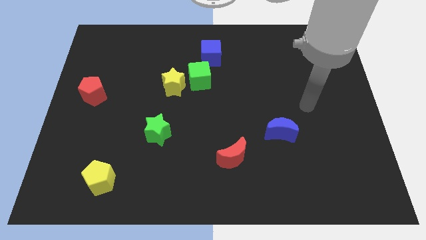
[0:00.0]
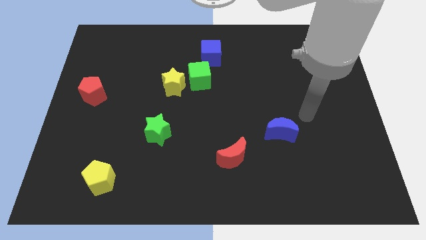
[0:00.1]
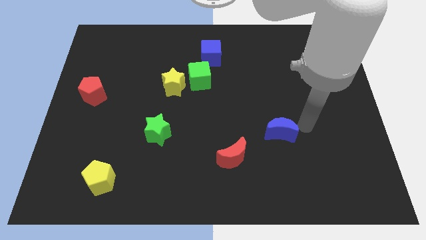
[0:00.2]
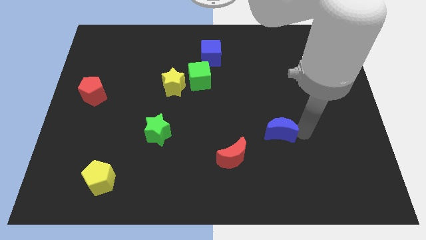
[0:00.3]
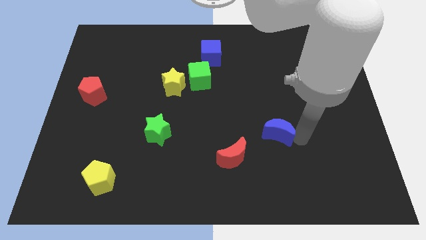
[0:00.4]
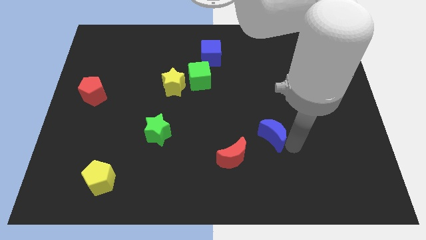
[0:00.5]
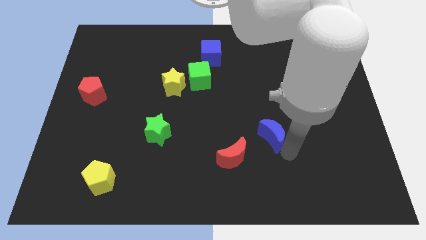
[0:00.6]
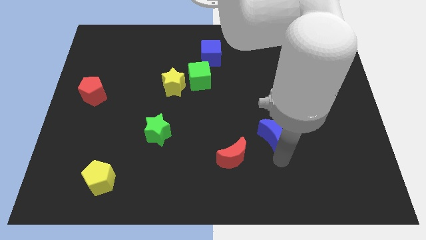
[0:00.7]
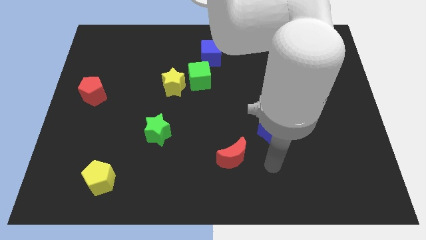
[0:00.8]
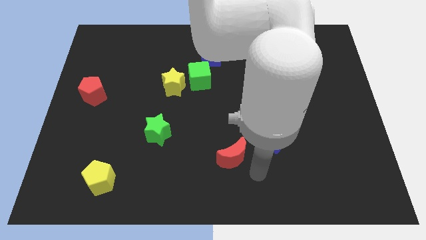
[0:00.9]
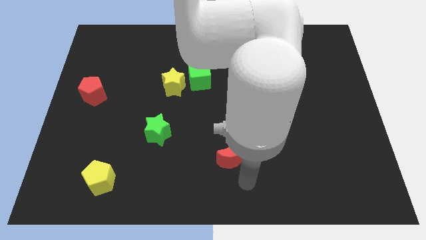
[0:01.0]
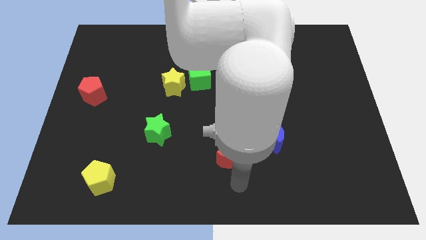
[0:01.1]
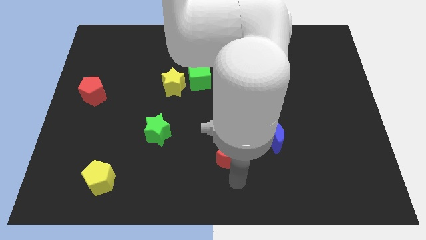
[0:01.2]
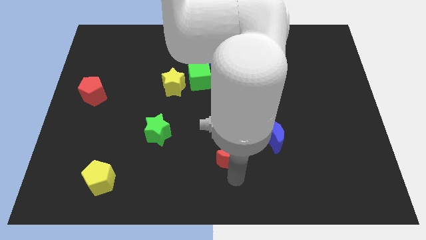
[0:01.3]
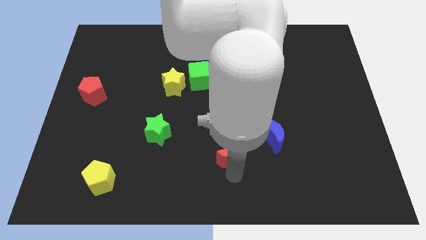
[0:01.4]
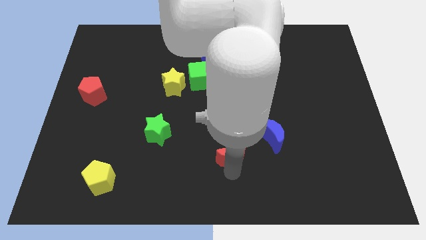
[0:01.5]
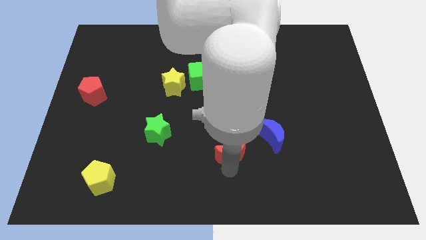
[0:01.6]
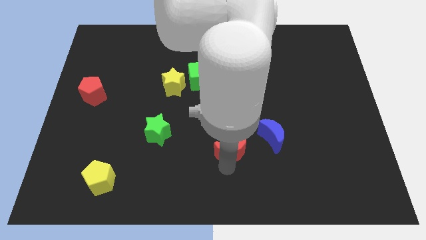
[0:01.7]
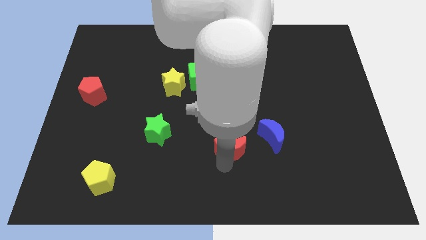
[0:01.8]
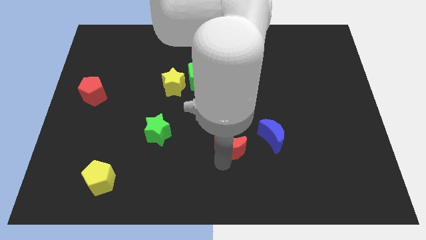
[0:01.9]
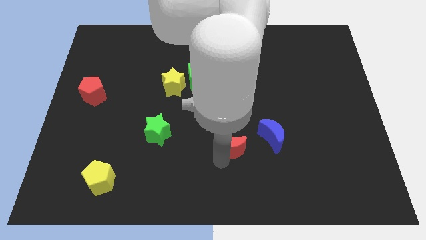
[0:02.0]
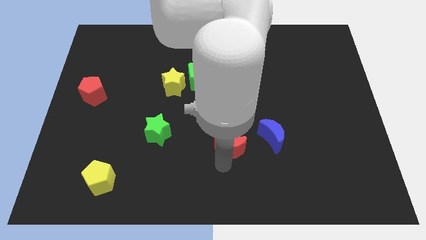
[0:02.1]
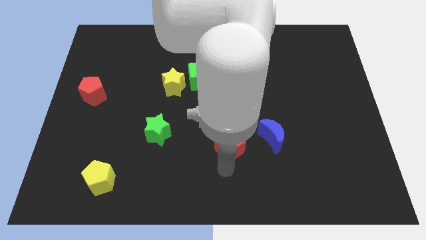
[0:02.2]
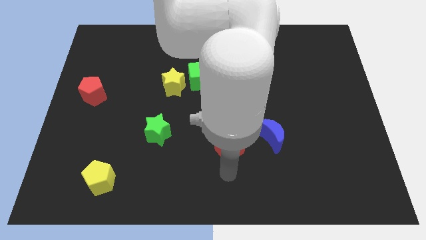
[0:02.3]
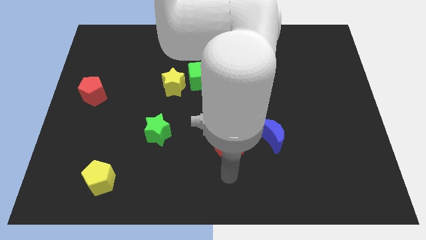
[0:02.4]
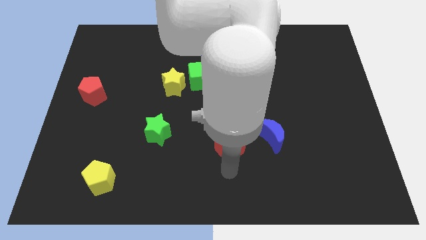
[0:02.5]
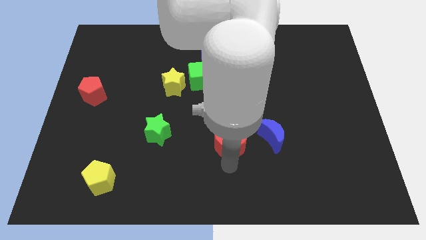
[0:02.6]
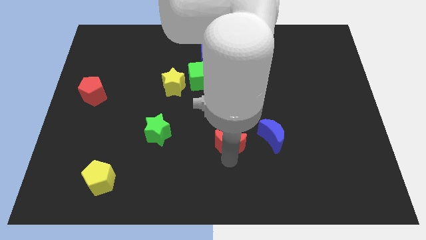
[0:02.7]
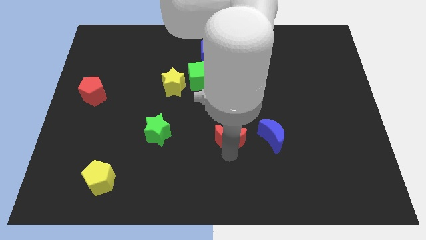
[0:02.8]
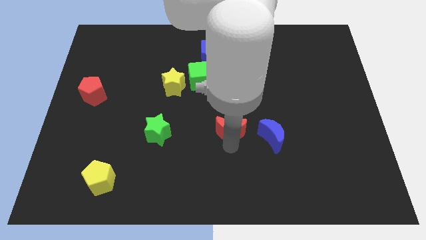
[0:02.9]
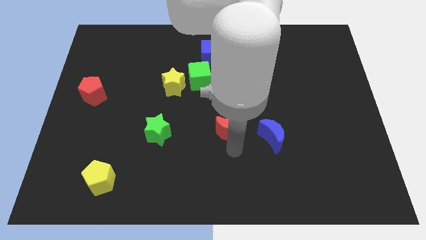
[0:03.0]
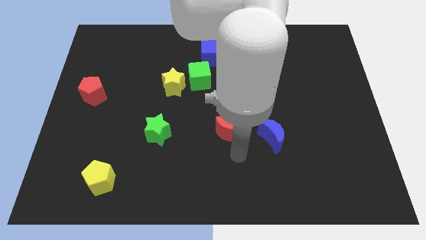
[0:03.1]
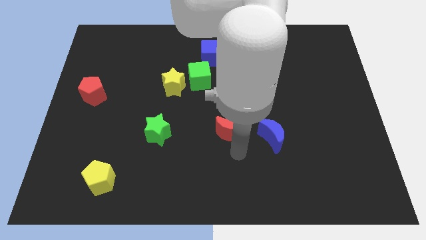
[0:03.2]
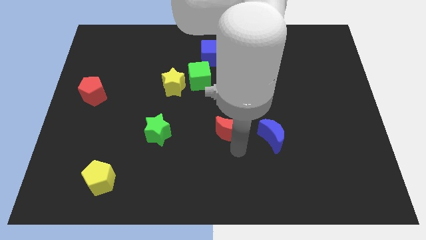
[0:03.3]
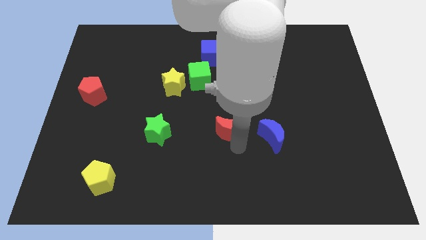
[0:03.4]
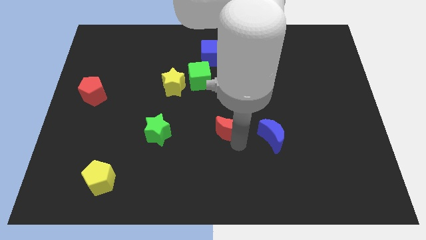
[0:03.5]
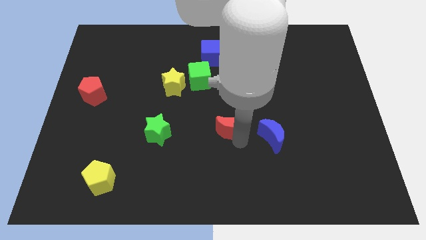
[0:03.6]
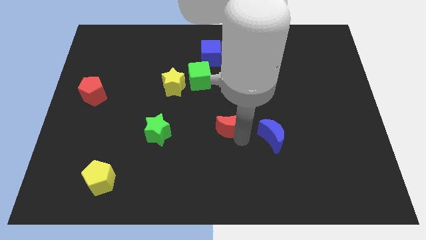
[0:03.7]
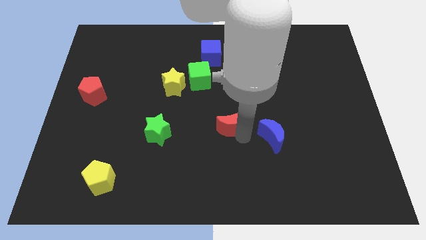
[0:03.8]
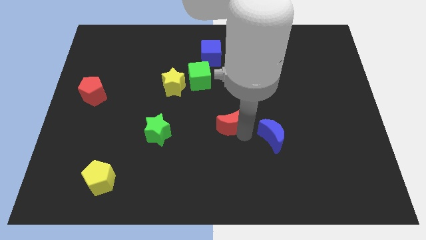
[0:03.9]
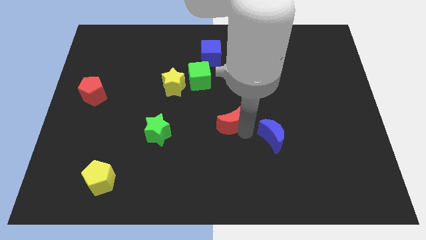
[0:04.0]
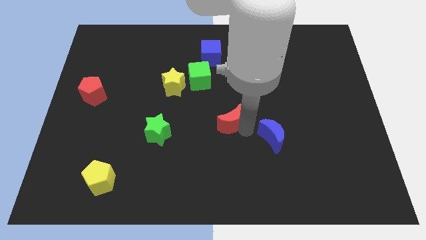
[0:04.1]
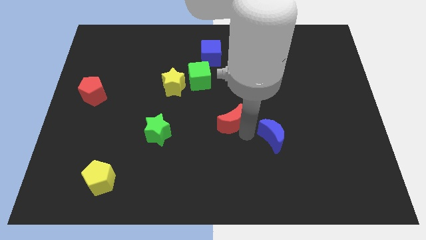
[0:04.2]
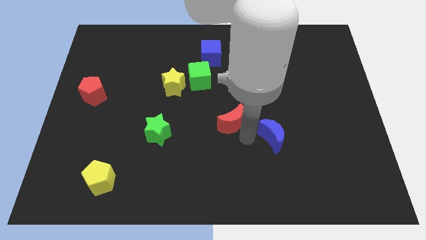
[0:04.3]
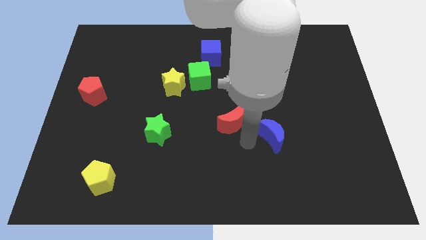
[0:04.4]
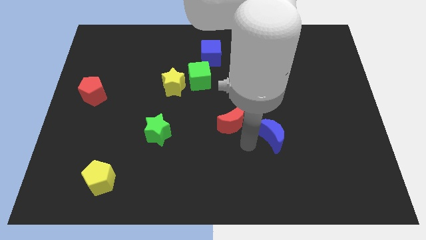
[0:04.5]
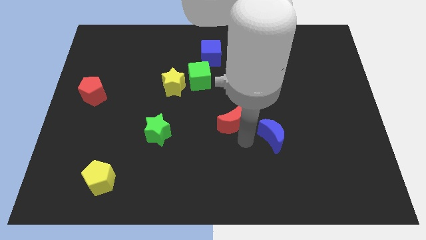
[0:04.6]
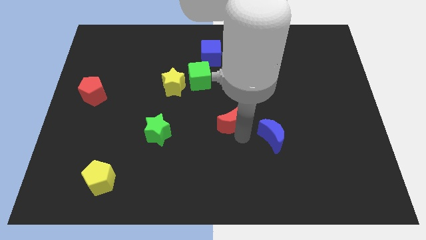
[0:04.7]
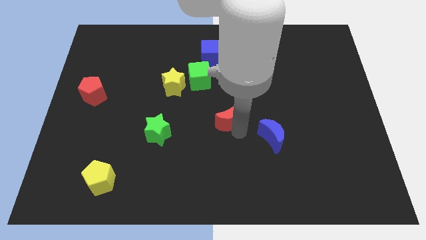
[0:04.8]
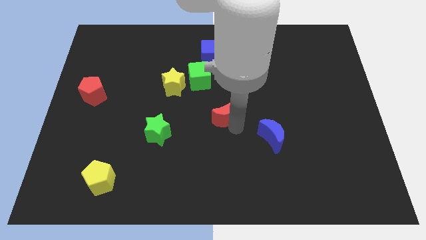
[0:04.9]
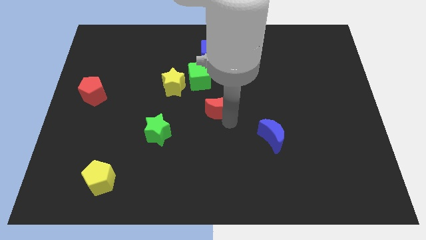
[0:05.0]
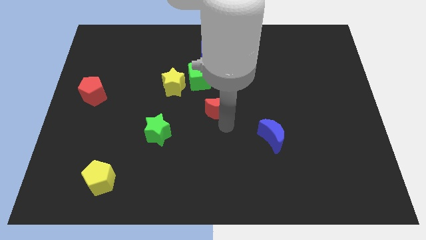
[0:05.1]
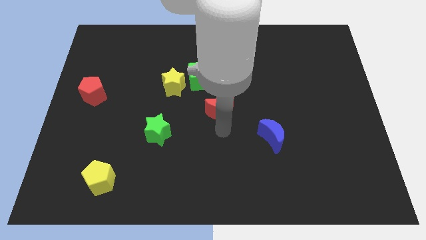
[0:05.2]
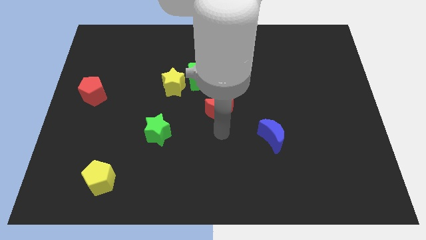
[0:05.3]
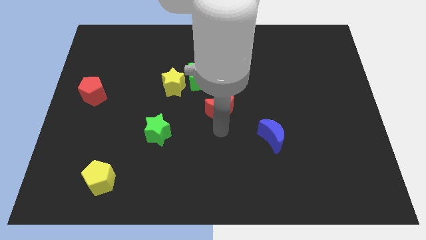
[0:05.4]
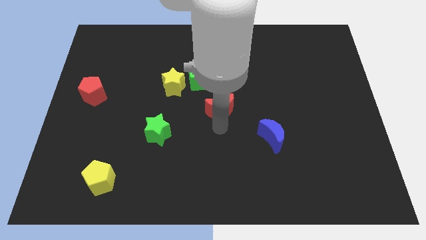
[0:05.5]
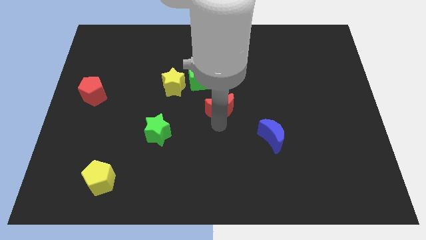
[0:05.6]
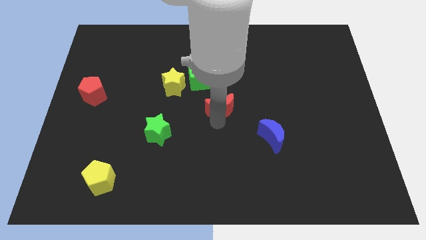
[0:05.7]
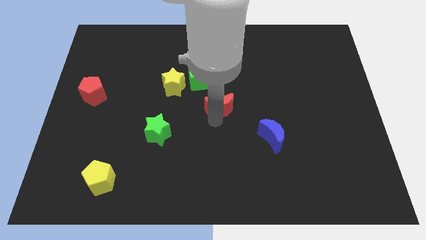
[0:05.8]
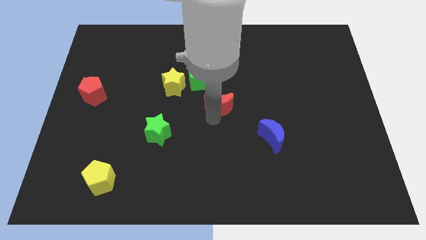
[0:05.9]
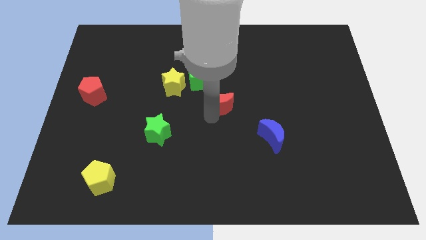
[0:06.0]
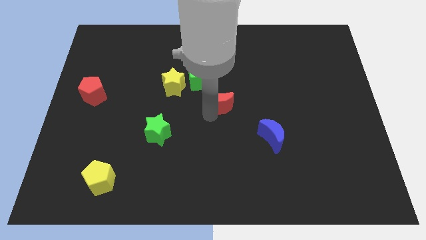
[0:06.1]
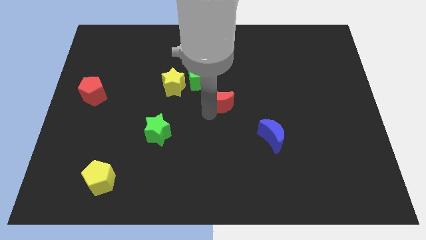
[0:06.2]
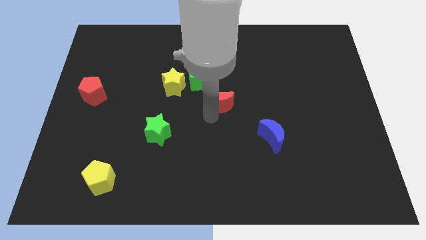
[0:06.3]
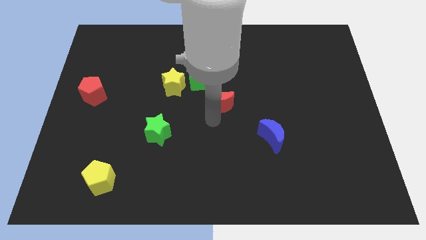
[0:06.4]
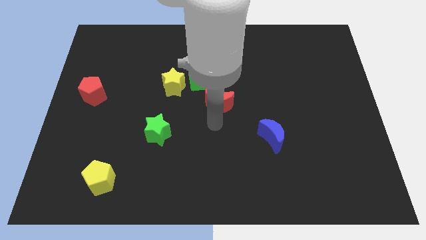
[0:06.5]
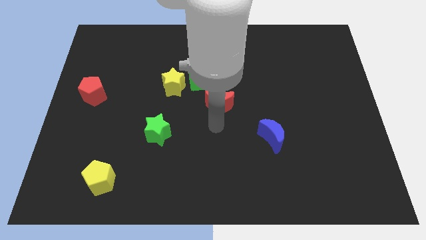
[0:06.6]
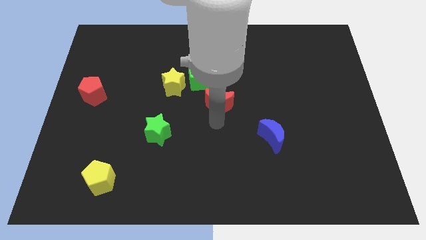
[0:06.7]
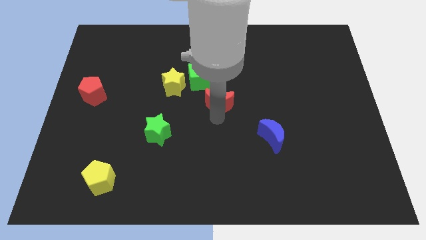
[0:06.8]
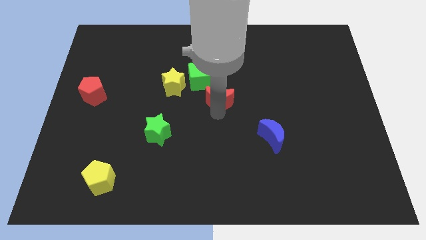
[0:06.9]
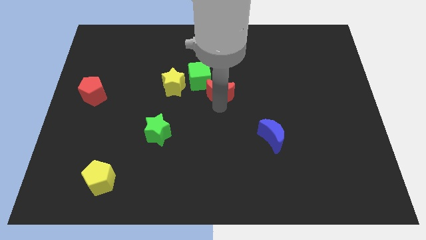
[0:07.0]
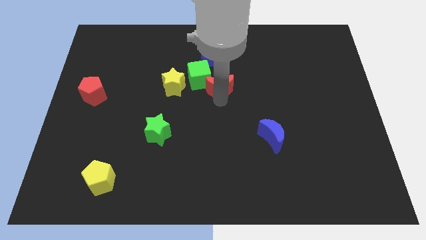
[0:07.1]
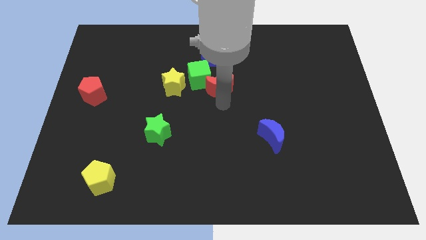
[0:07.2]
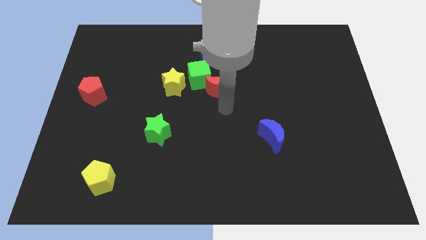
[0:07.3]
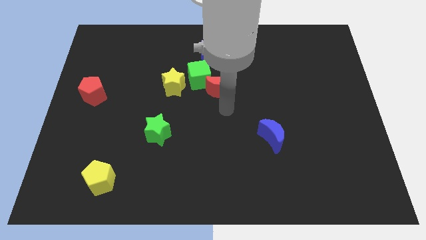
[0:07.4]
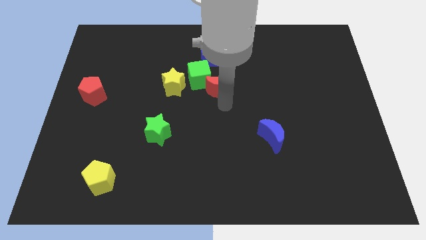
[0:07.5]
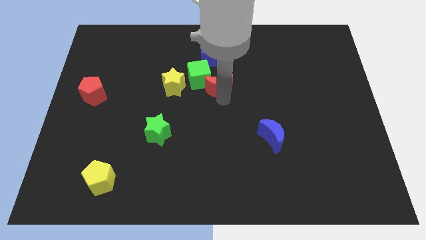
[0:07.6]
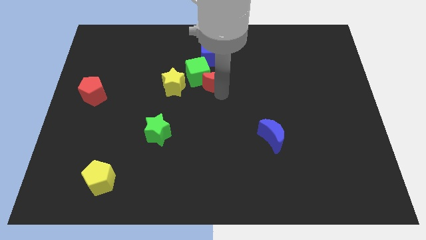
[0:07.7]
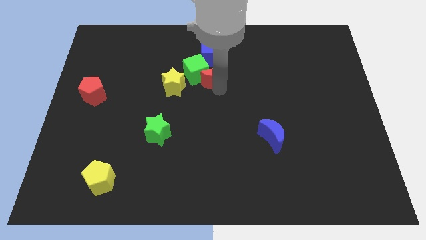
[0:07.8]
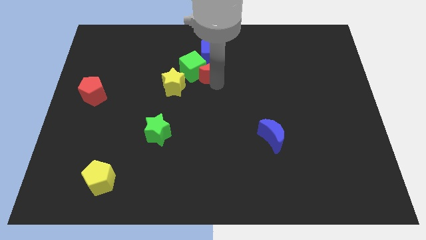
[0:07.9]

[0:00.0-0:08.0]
push the red moon to the blue cube
